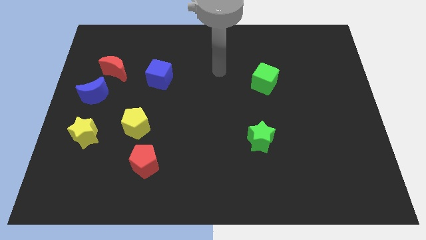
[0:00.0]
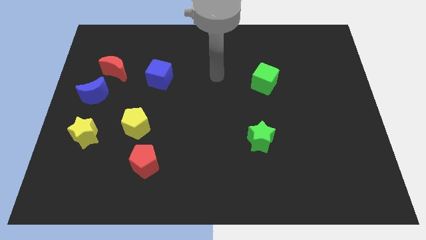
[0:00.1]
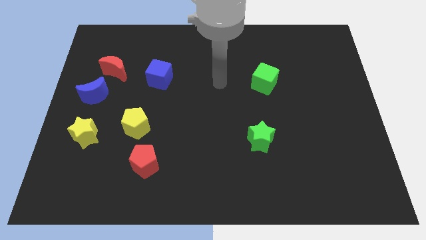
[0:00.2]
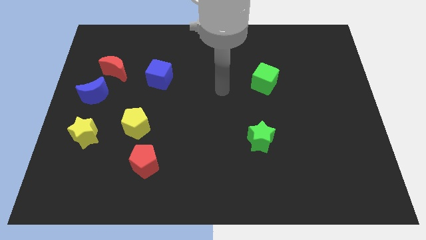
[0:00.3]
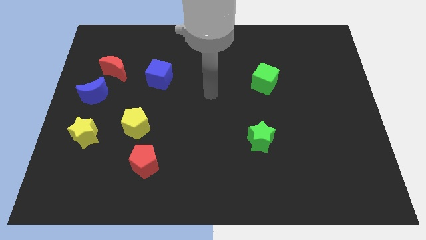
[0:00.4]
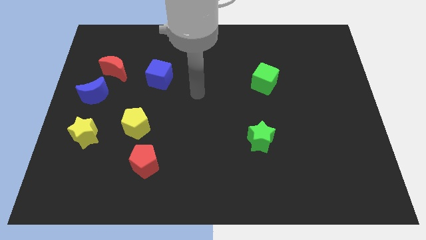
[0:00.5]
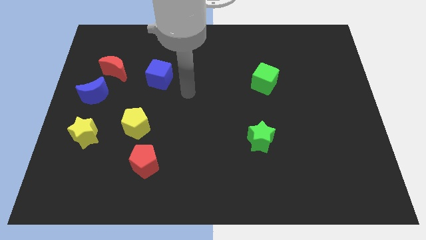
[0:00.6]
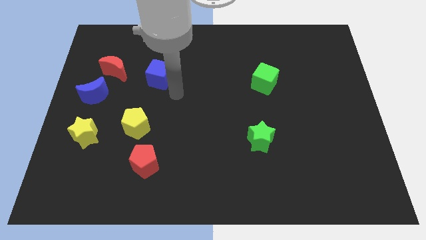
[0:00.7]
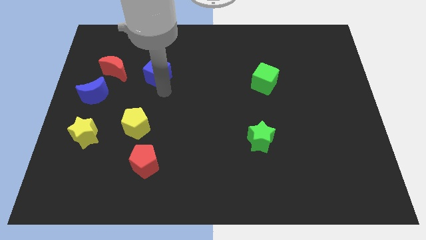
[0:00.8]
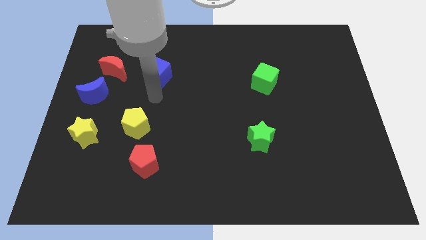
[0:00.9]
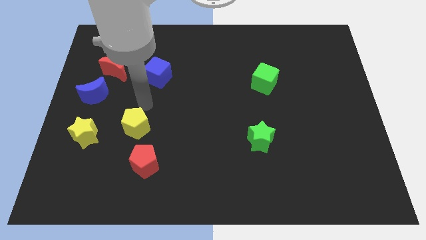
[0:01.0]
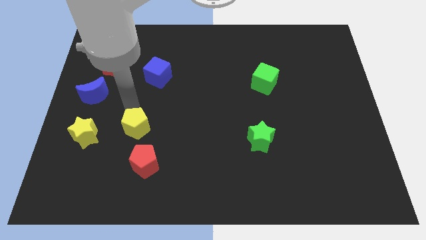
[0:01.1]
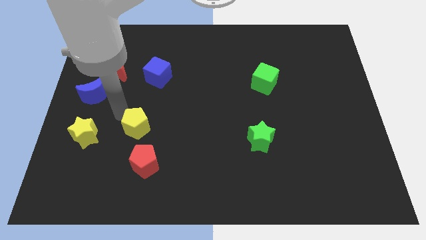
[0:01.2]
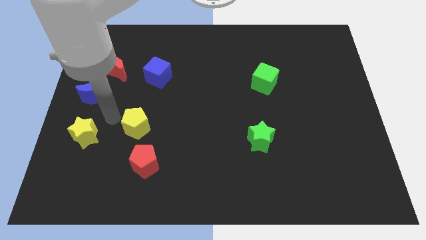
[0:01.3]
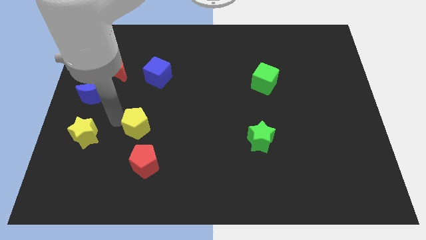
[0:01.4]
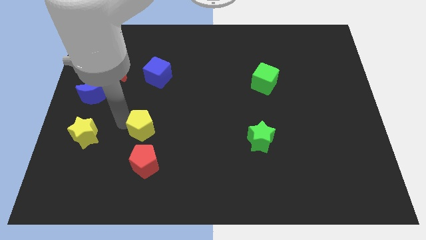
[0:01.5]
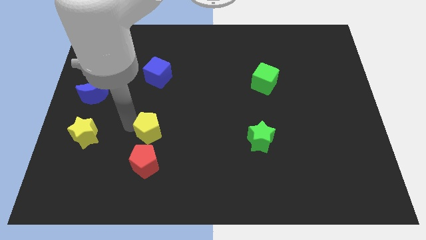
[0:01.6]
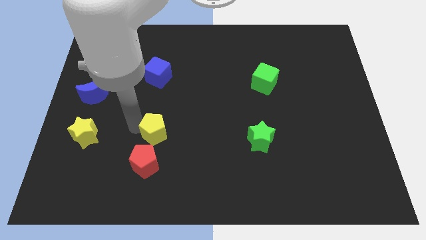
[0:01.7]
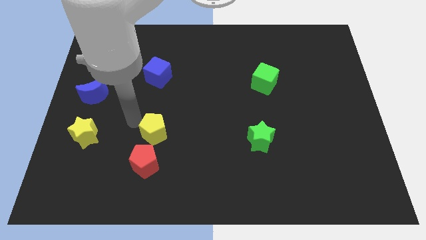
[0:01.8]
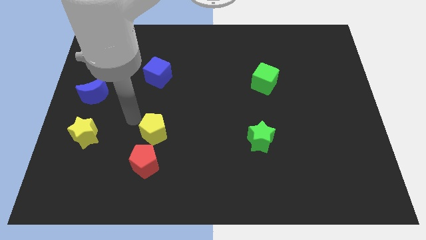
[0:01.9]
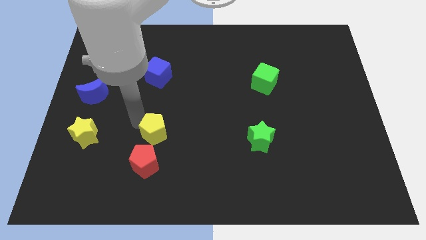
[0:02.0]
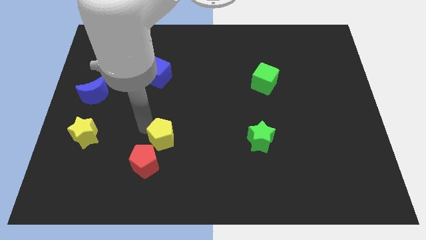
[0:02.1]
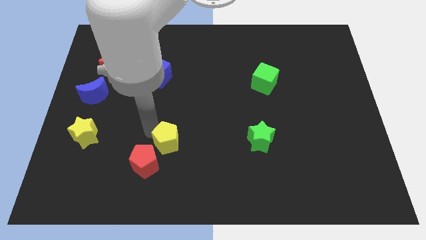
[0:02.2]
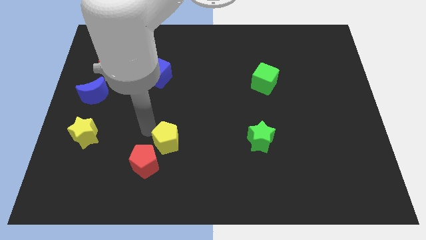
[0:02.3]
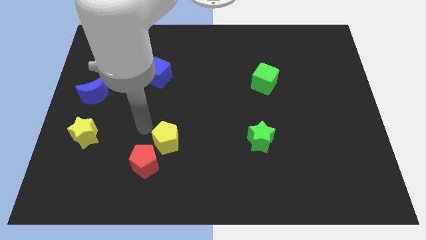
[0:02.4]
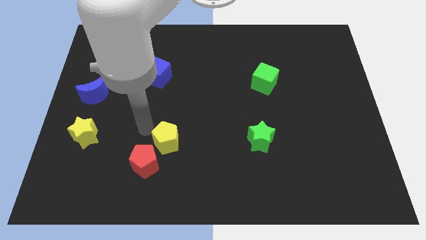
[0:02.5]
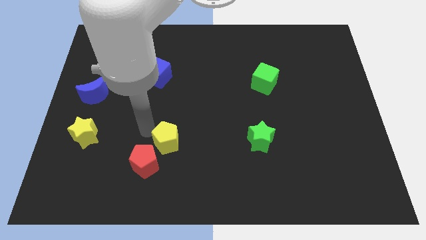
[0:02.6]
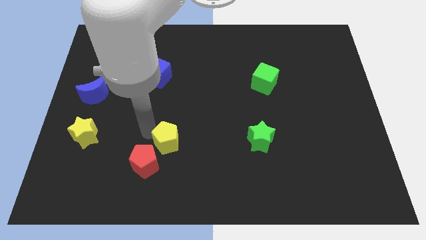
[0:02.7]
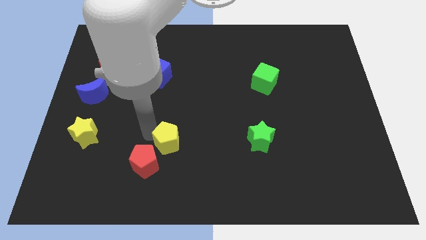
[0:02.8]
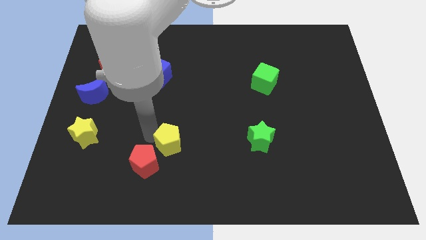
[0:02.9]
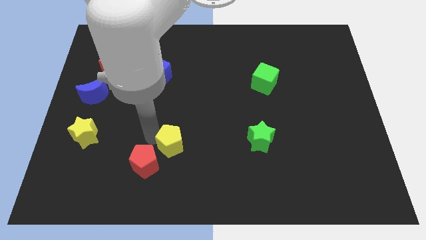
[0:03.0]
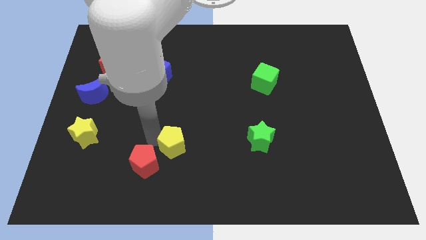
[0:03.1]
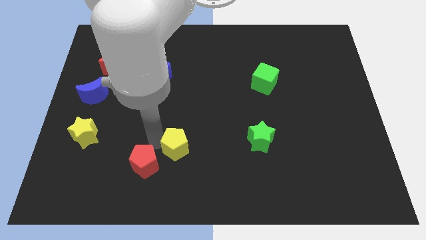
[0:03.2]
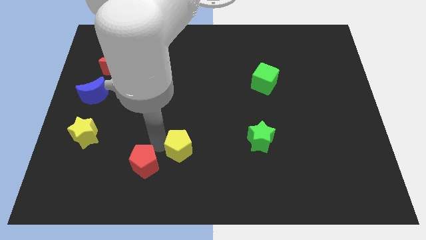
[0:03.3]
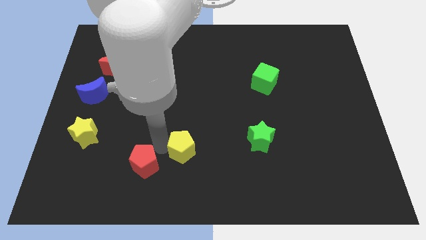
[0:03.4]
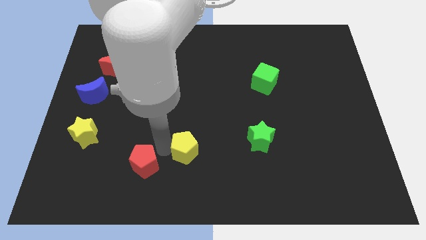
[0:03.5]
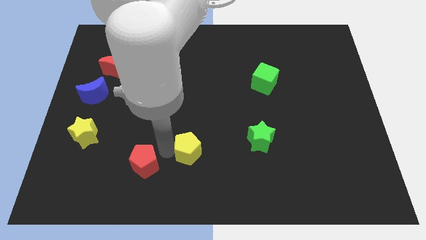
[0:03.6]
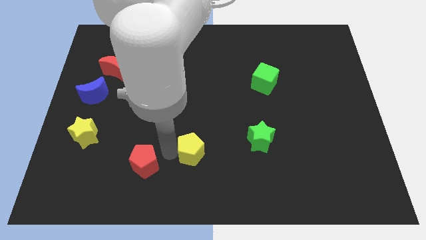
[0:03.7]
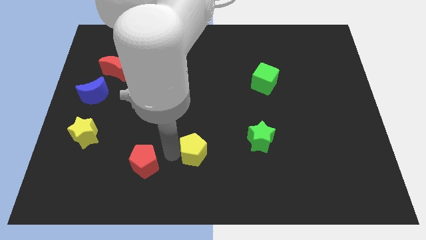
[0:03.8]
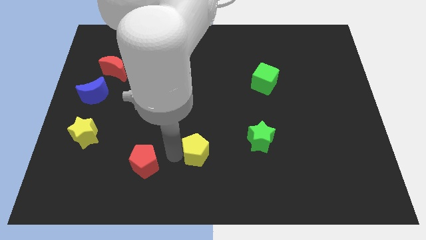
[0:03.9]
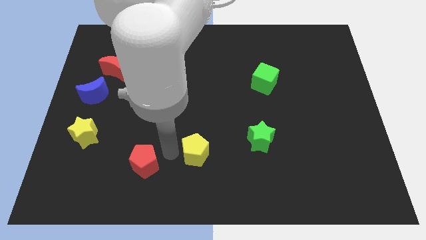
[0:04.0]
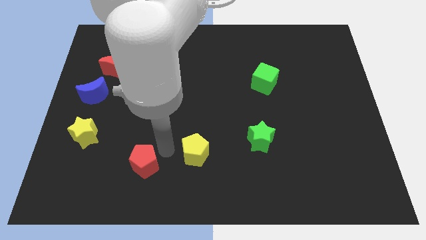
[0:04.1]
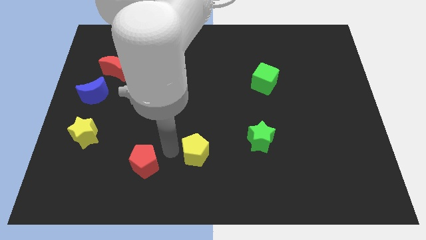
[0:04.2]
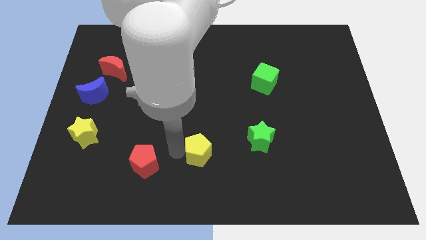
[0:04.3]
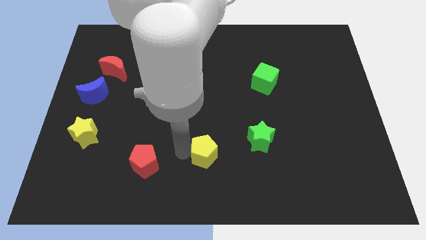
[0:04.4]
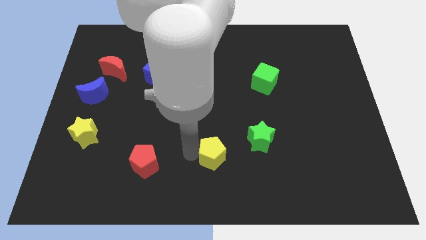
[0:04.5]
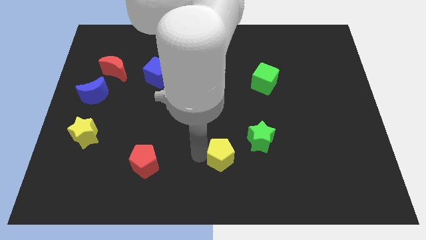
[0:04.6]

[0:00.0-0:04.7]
push the yellow pentagon to the bottom left of the green star

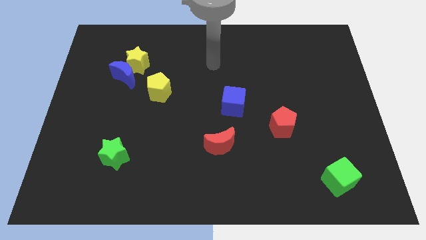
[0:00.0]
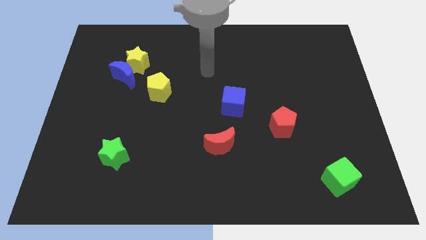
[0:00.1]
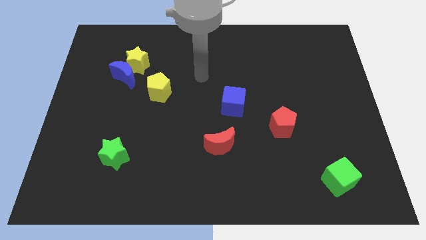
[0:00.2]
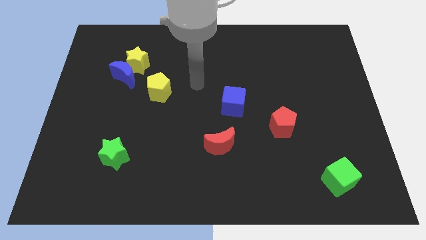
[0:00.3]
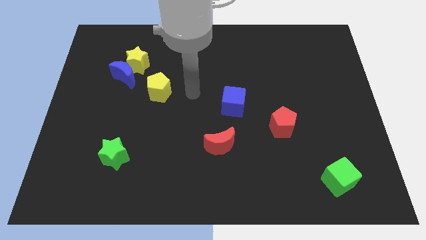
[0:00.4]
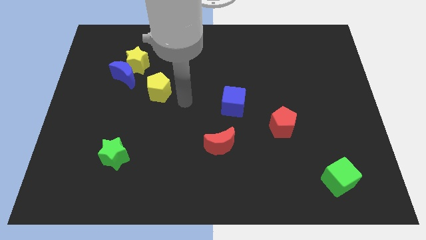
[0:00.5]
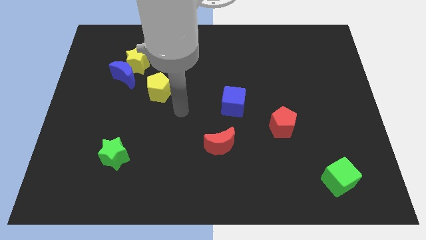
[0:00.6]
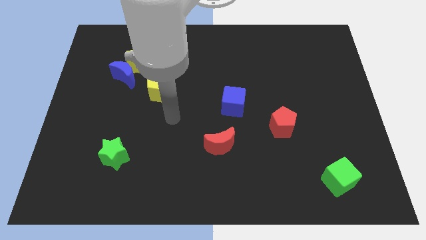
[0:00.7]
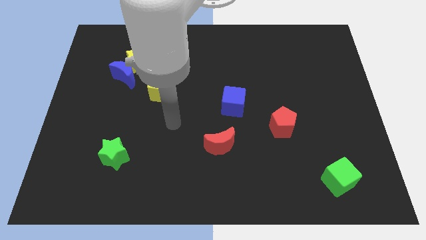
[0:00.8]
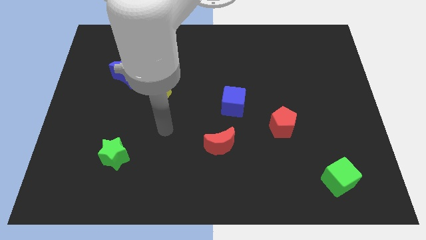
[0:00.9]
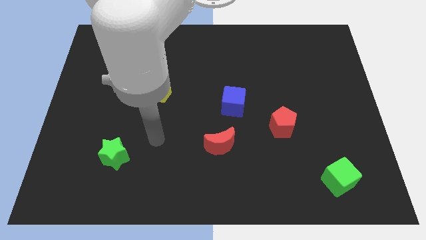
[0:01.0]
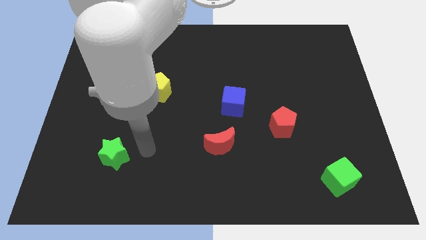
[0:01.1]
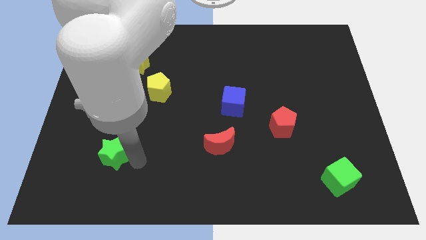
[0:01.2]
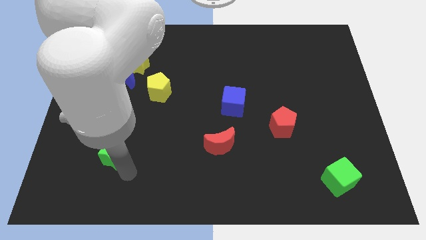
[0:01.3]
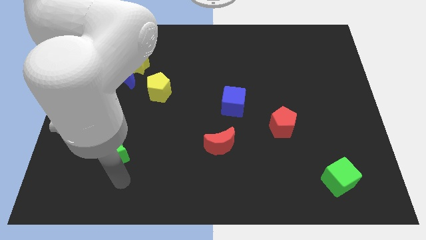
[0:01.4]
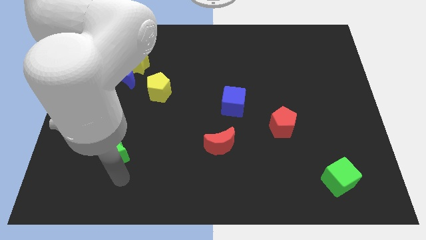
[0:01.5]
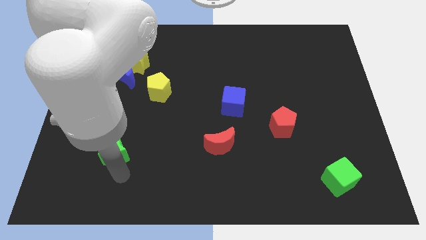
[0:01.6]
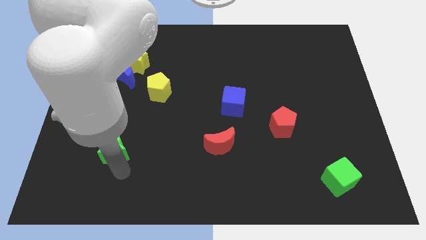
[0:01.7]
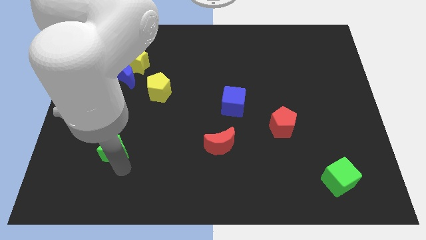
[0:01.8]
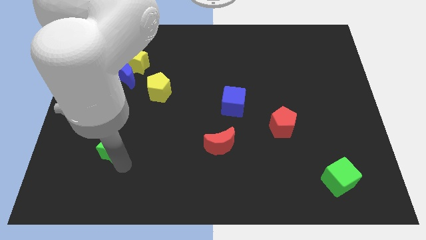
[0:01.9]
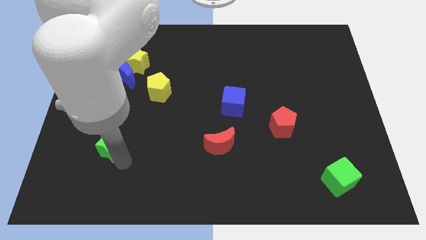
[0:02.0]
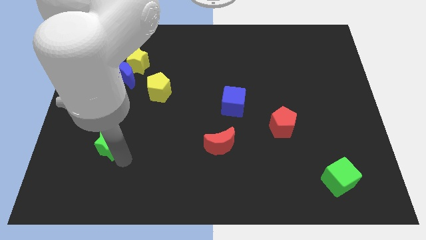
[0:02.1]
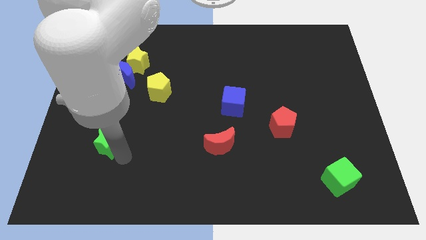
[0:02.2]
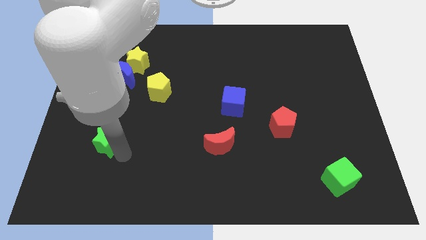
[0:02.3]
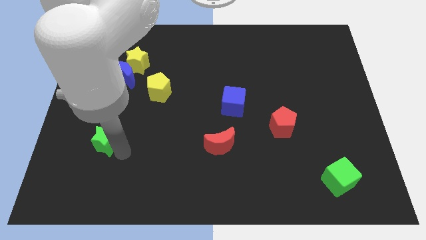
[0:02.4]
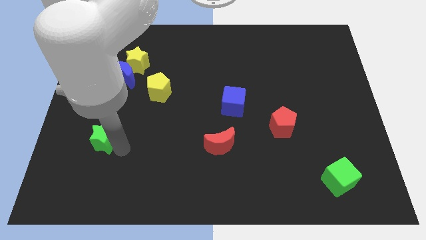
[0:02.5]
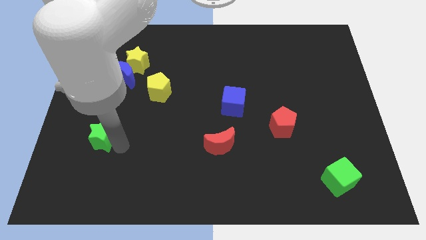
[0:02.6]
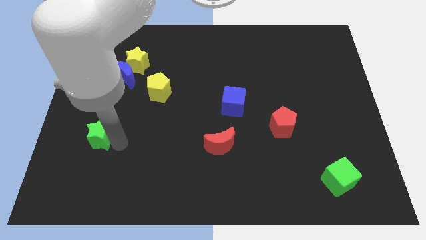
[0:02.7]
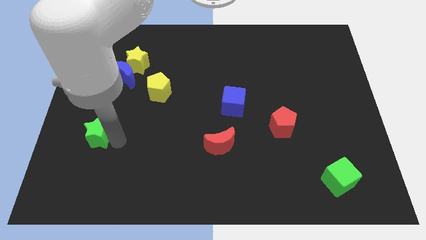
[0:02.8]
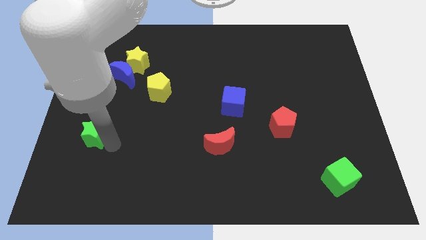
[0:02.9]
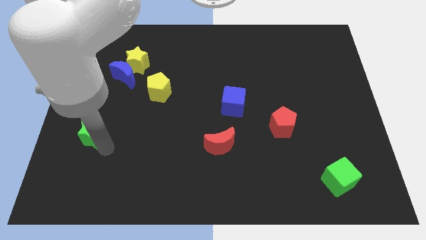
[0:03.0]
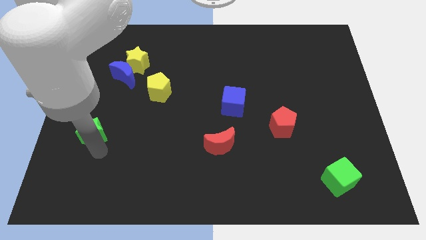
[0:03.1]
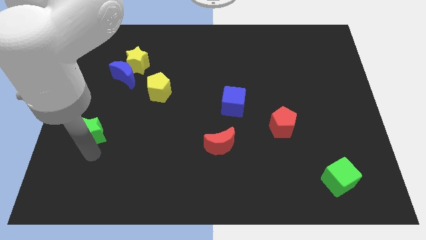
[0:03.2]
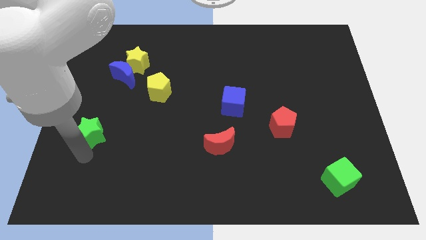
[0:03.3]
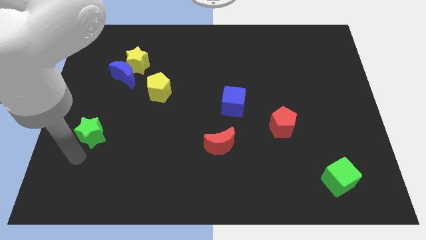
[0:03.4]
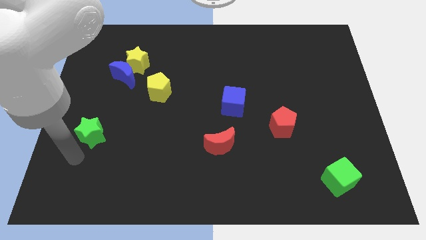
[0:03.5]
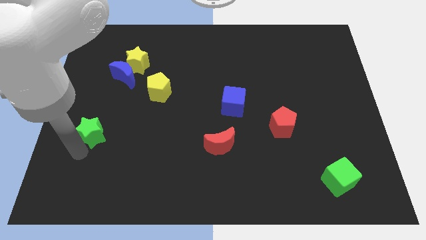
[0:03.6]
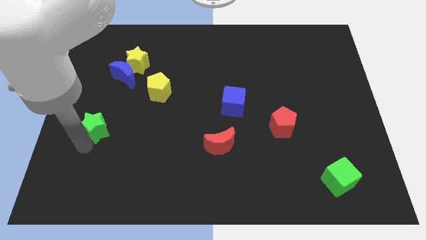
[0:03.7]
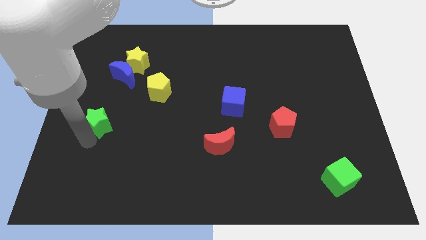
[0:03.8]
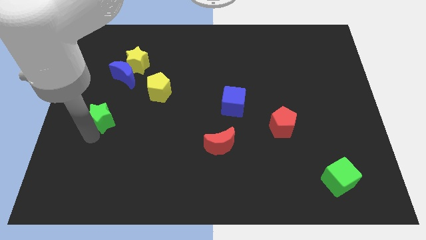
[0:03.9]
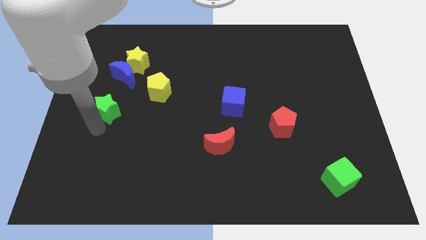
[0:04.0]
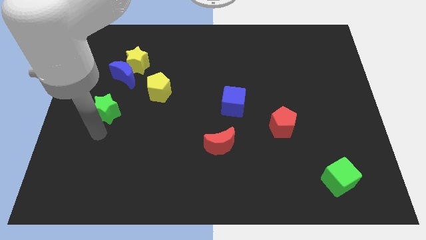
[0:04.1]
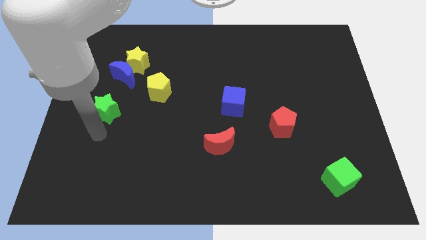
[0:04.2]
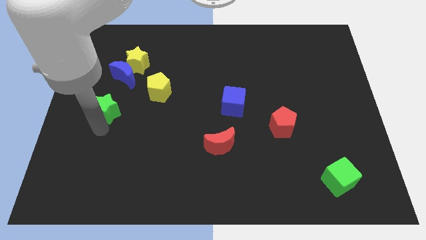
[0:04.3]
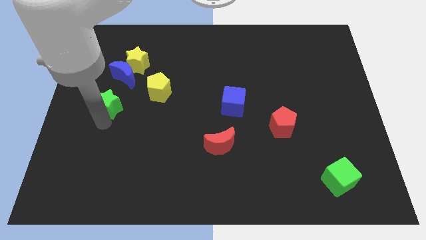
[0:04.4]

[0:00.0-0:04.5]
put the green star to the left side of the yellow pentagon
